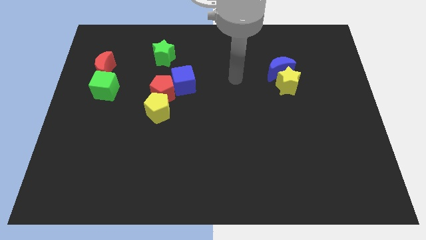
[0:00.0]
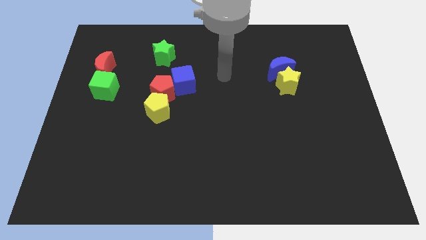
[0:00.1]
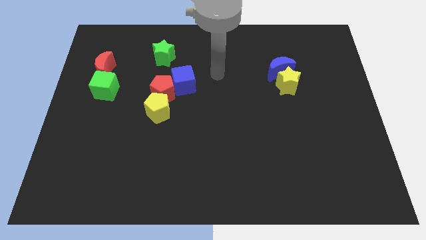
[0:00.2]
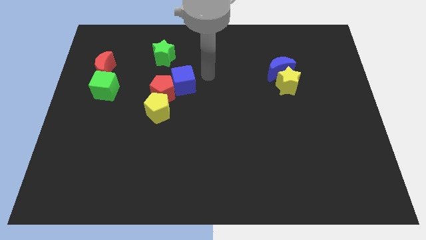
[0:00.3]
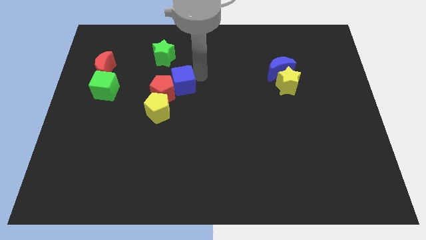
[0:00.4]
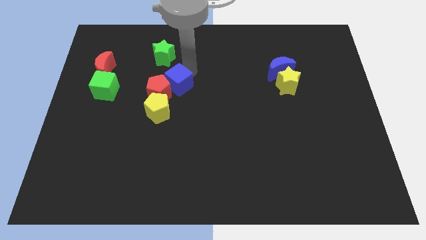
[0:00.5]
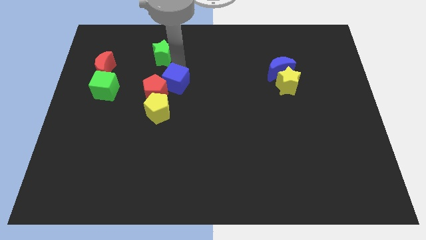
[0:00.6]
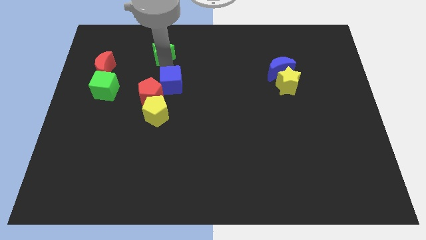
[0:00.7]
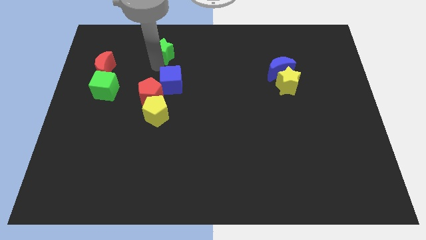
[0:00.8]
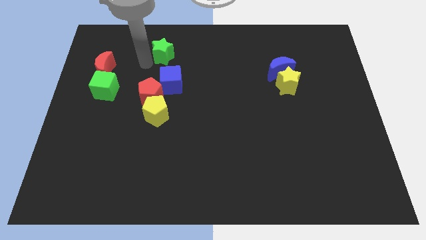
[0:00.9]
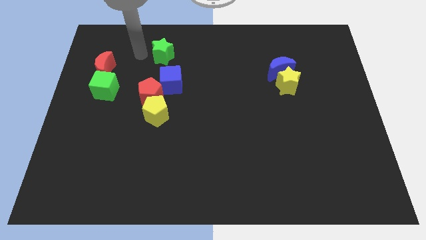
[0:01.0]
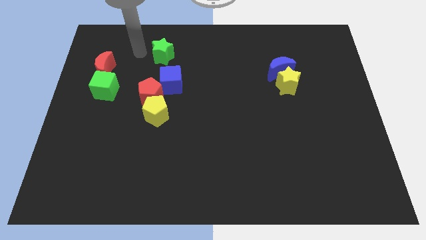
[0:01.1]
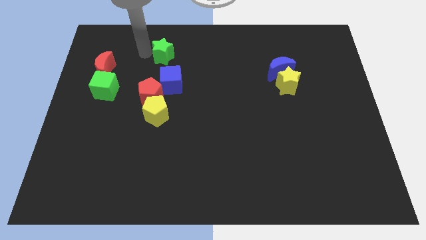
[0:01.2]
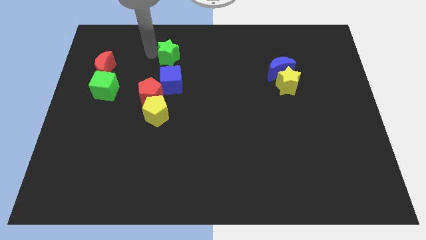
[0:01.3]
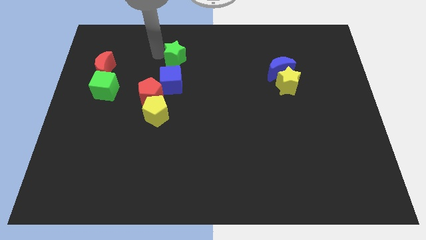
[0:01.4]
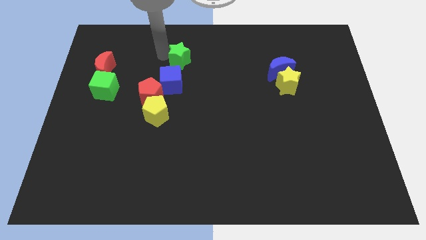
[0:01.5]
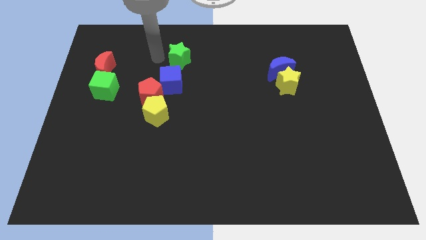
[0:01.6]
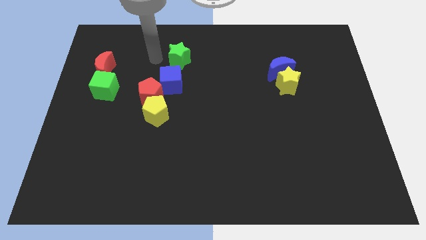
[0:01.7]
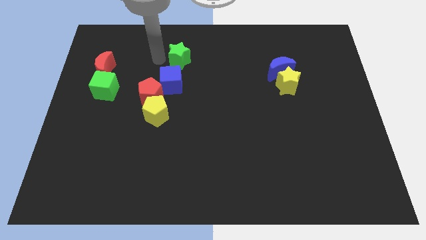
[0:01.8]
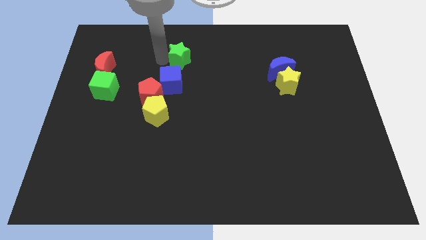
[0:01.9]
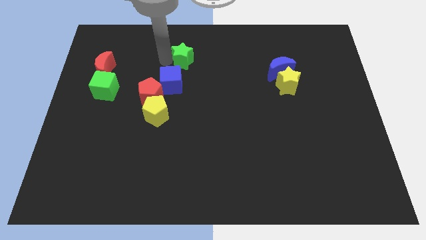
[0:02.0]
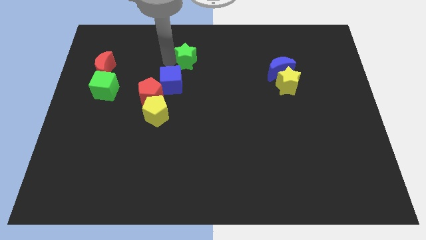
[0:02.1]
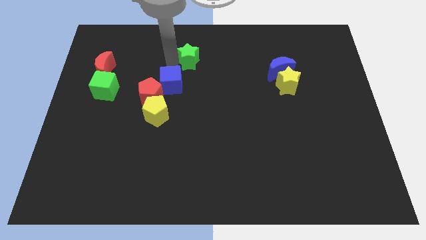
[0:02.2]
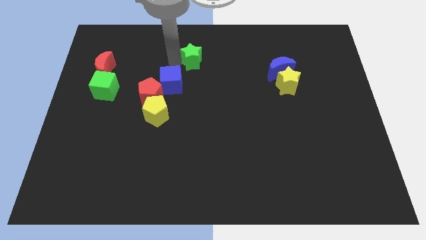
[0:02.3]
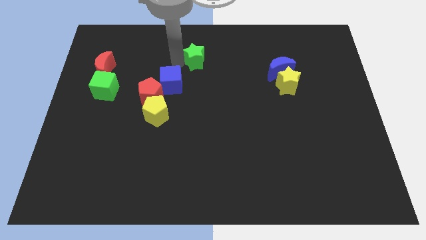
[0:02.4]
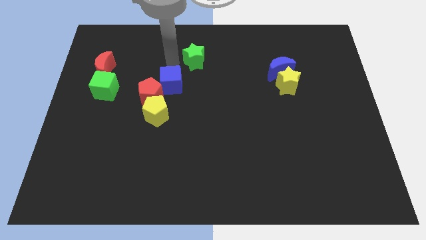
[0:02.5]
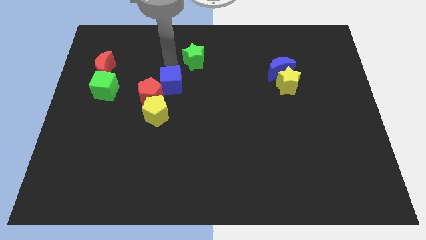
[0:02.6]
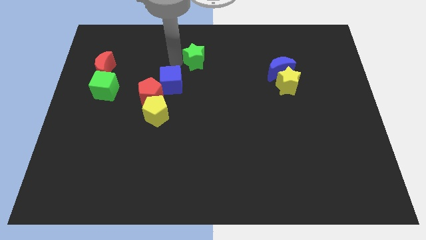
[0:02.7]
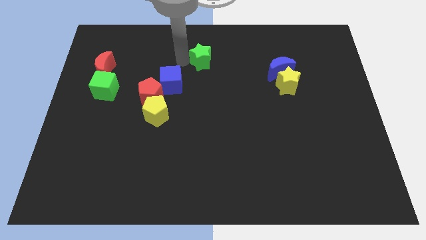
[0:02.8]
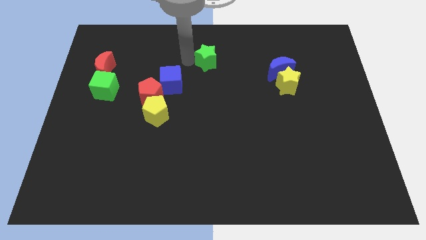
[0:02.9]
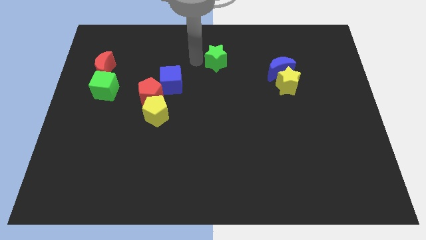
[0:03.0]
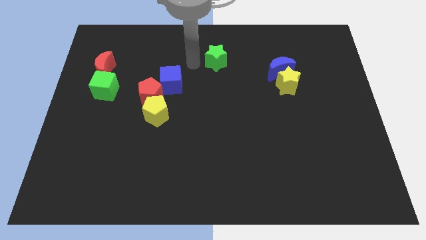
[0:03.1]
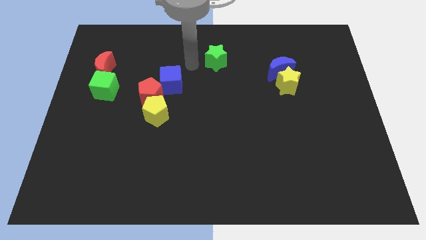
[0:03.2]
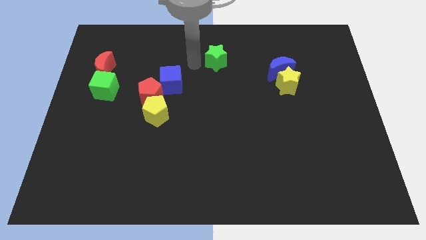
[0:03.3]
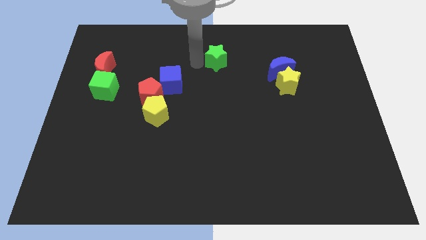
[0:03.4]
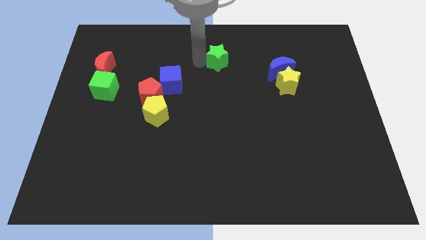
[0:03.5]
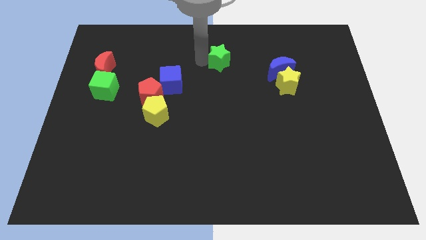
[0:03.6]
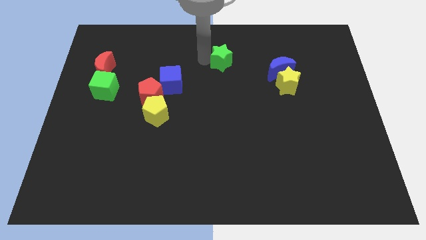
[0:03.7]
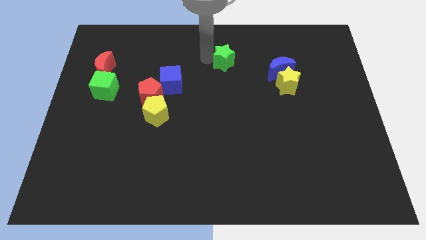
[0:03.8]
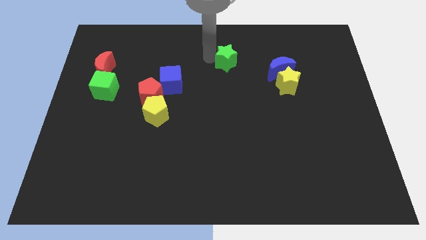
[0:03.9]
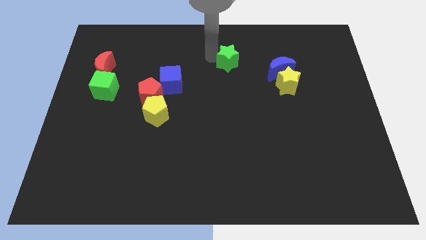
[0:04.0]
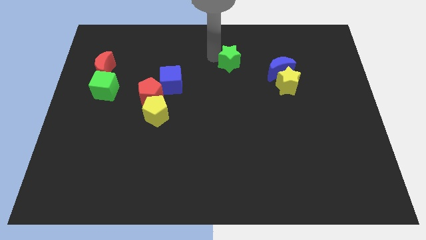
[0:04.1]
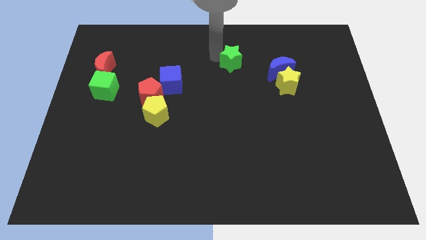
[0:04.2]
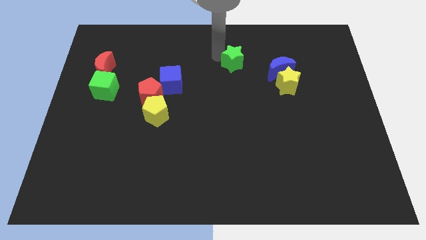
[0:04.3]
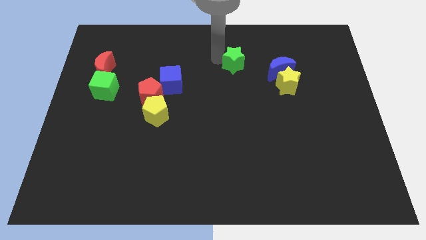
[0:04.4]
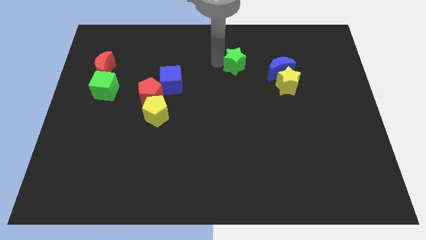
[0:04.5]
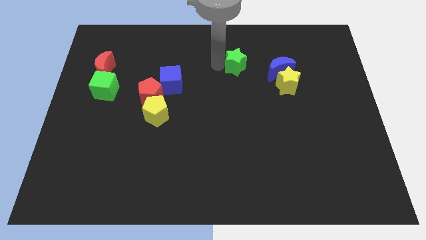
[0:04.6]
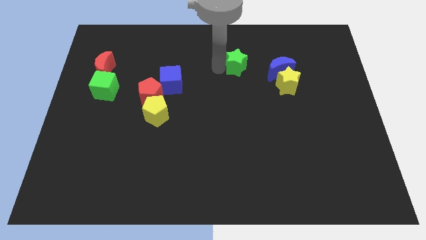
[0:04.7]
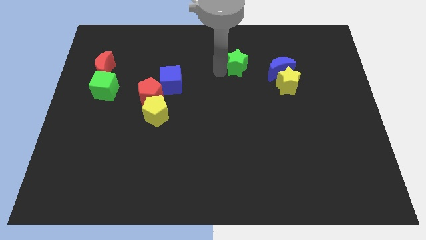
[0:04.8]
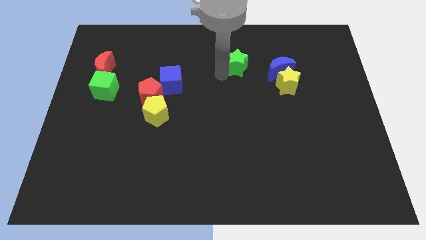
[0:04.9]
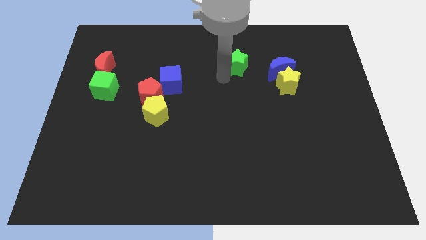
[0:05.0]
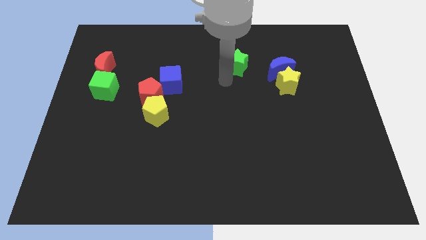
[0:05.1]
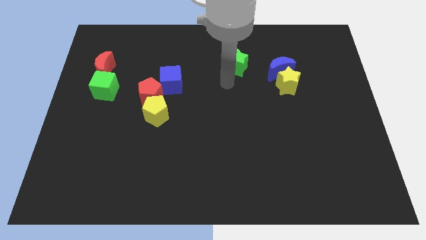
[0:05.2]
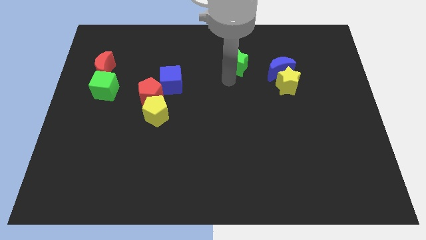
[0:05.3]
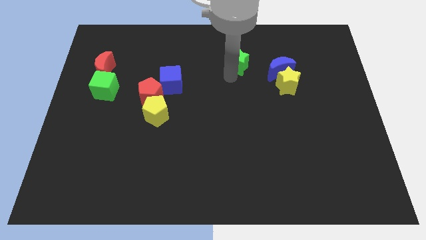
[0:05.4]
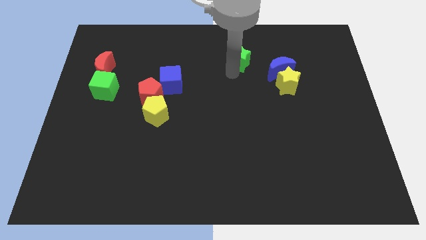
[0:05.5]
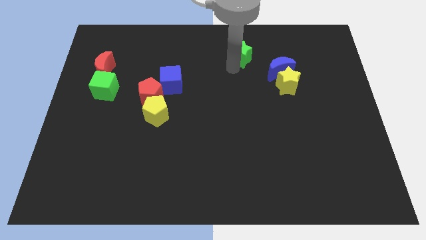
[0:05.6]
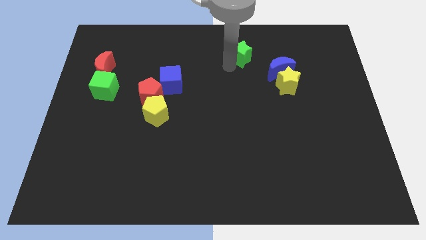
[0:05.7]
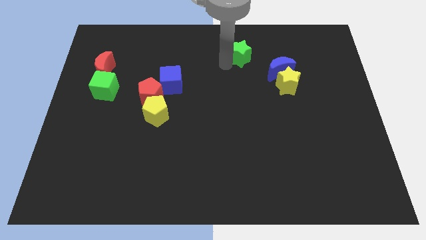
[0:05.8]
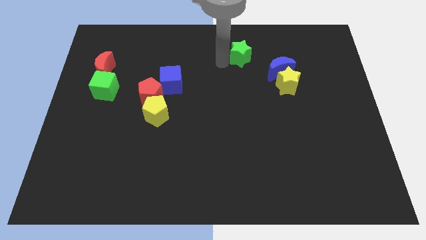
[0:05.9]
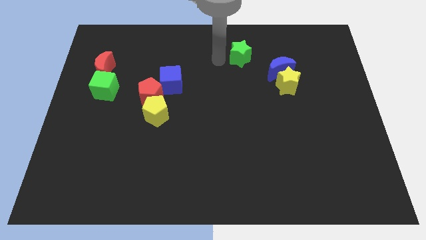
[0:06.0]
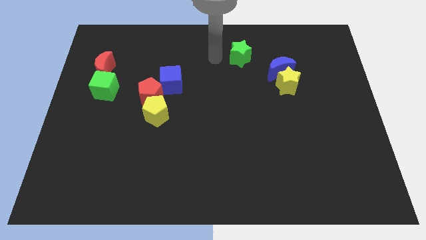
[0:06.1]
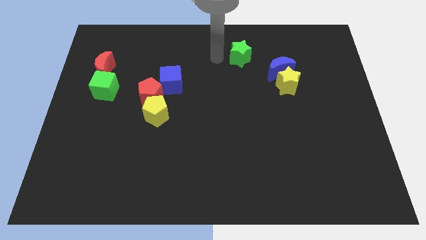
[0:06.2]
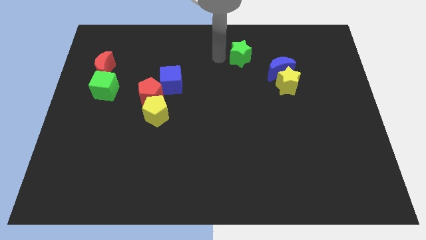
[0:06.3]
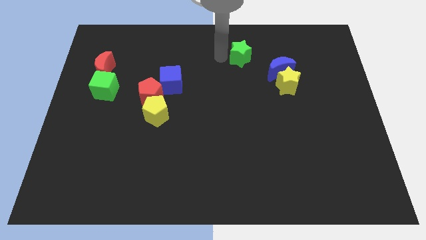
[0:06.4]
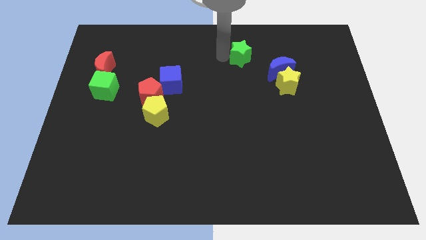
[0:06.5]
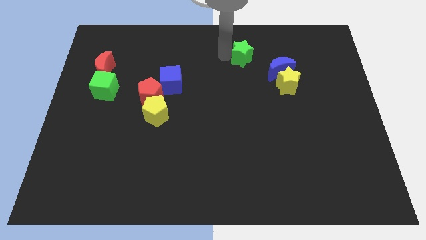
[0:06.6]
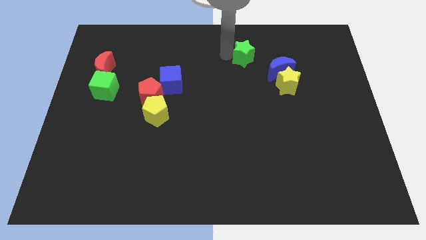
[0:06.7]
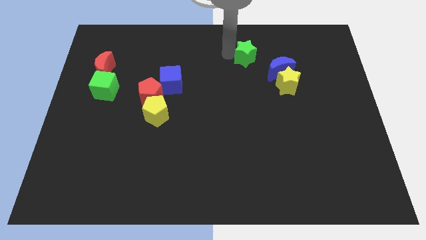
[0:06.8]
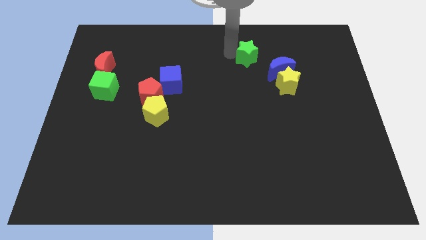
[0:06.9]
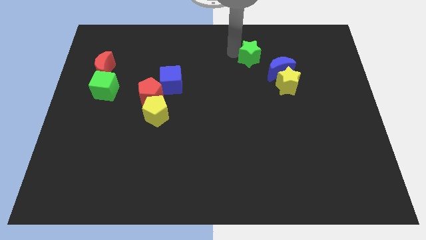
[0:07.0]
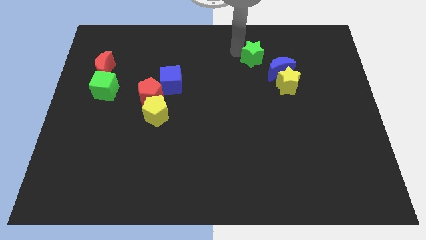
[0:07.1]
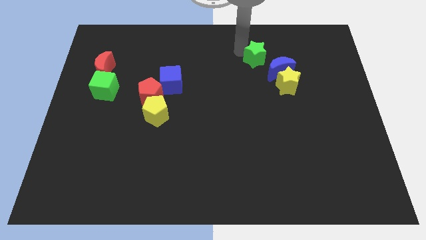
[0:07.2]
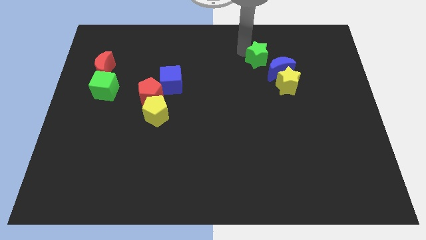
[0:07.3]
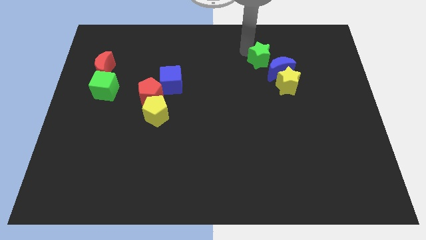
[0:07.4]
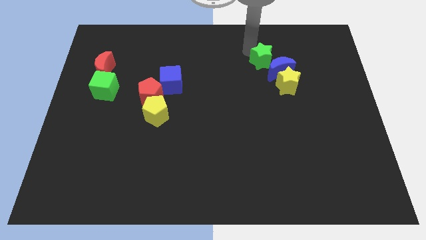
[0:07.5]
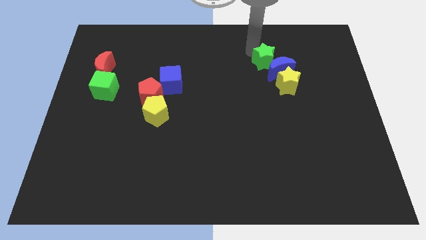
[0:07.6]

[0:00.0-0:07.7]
move the green star above the yellow star
